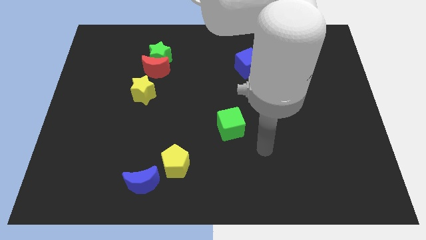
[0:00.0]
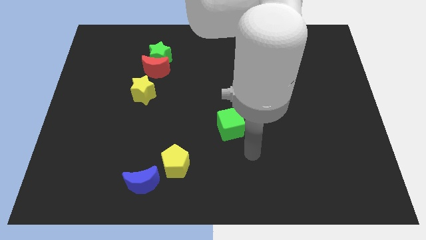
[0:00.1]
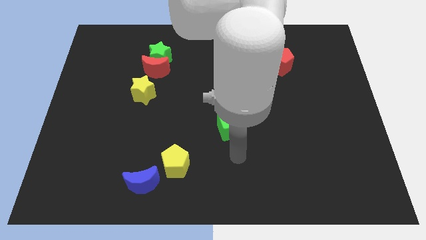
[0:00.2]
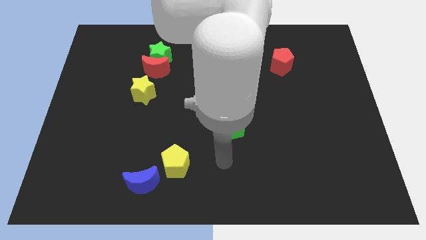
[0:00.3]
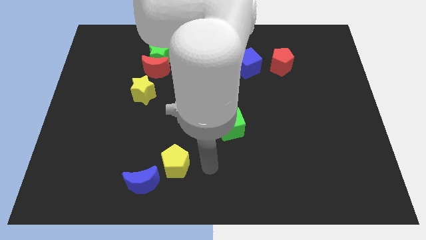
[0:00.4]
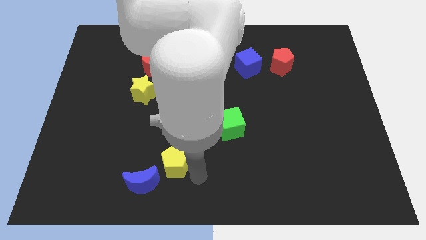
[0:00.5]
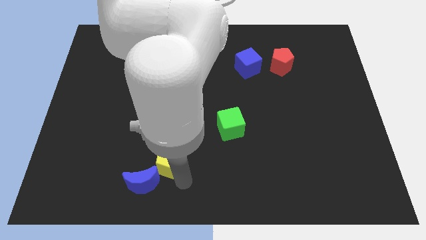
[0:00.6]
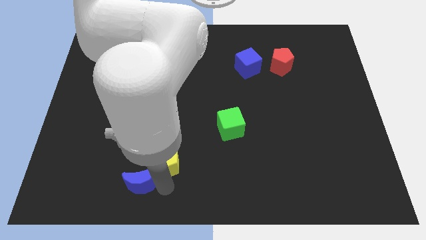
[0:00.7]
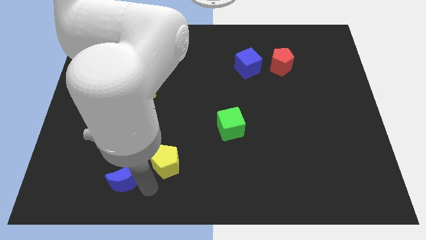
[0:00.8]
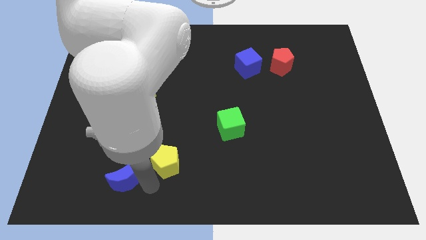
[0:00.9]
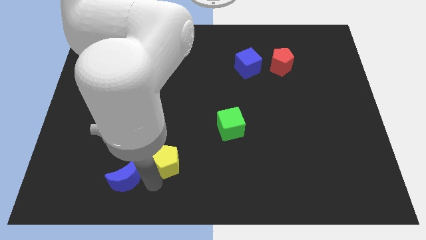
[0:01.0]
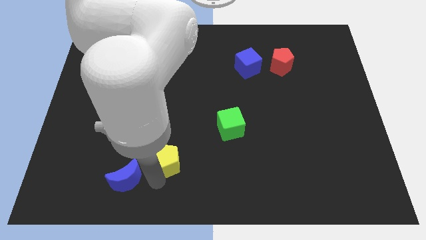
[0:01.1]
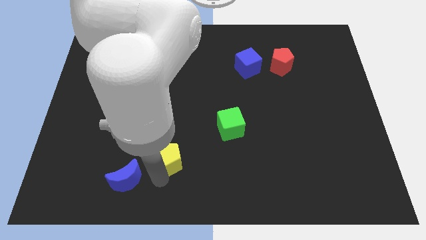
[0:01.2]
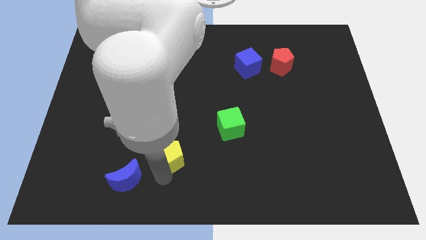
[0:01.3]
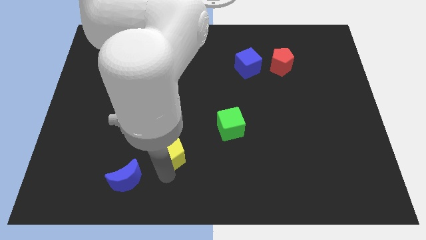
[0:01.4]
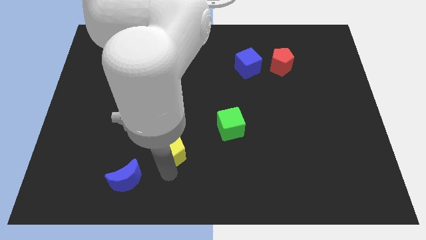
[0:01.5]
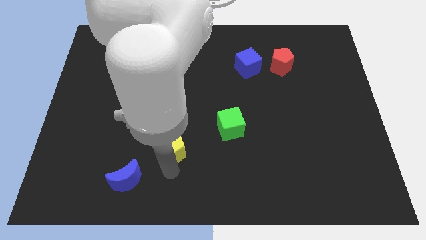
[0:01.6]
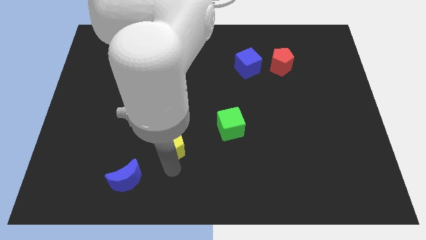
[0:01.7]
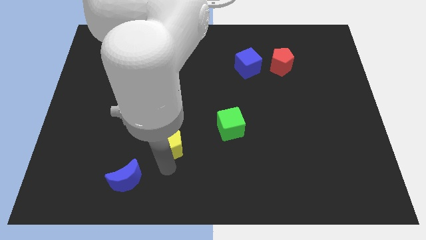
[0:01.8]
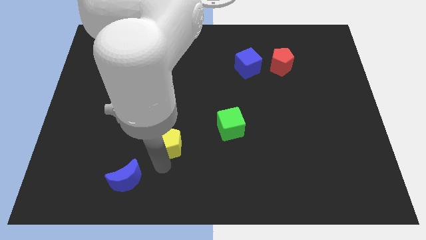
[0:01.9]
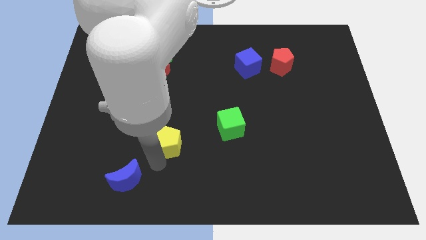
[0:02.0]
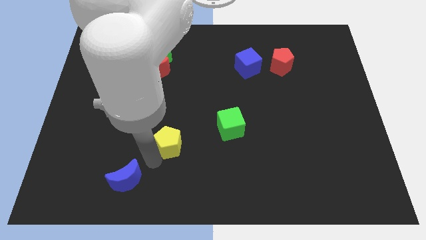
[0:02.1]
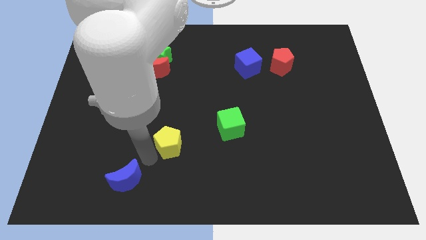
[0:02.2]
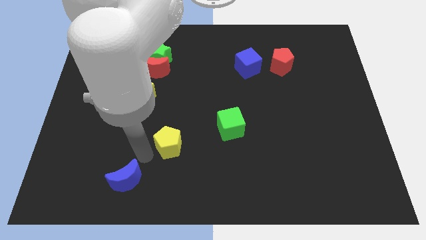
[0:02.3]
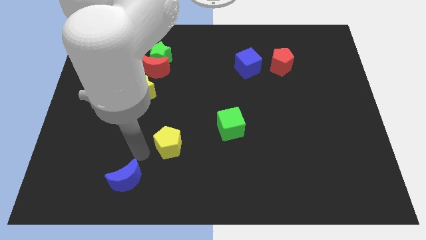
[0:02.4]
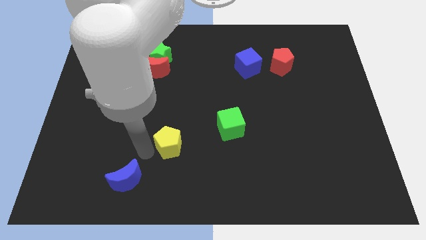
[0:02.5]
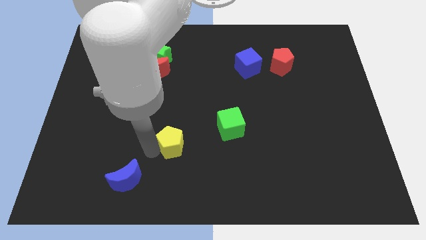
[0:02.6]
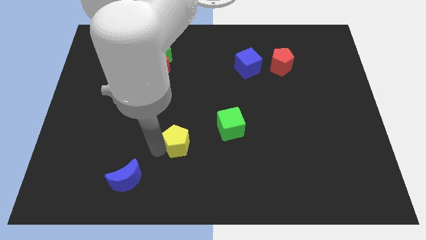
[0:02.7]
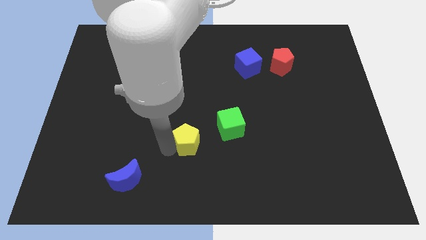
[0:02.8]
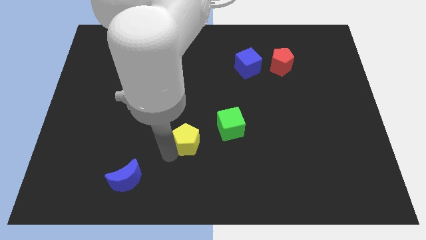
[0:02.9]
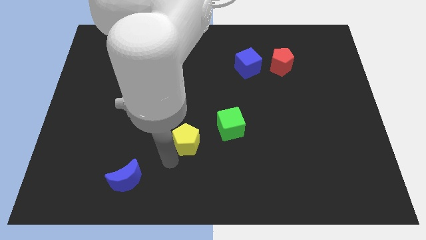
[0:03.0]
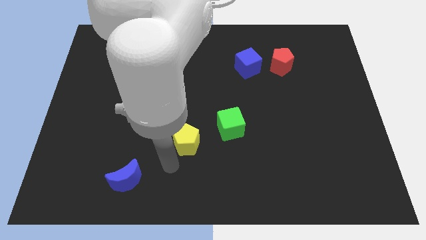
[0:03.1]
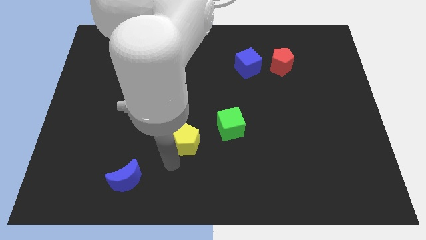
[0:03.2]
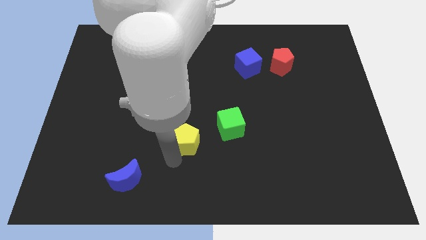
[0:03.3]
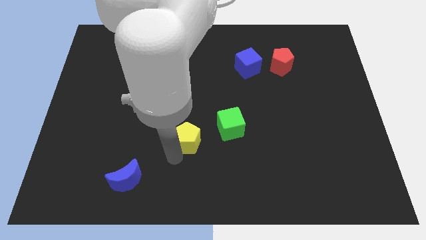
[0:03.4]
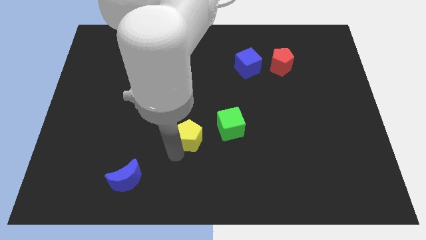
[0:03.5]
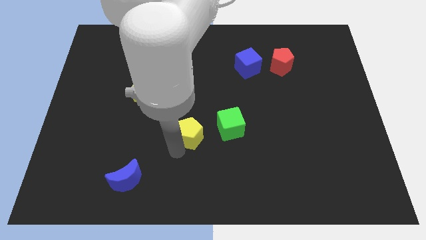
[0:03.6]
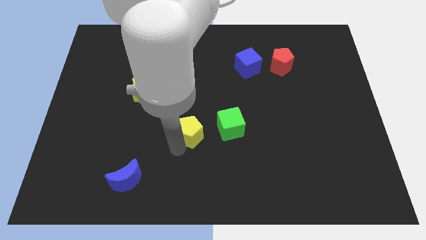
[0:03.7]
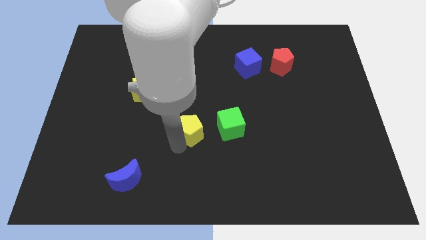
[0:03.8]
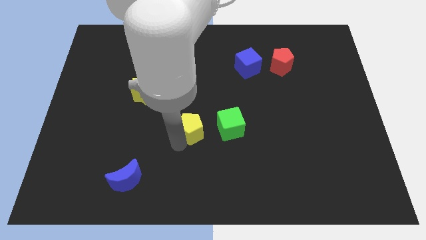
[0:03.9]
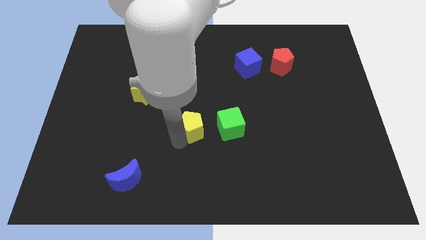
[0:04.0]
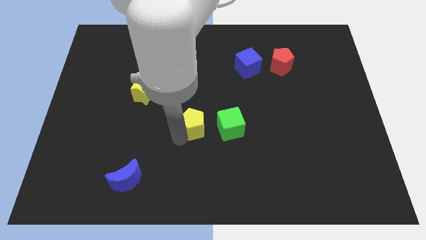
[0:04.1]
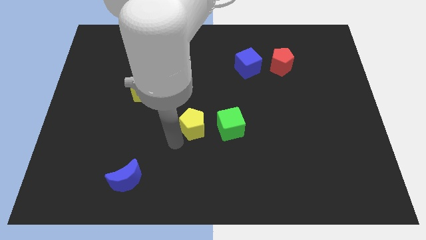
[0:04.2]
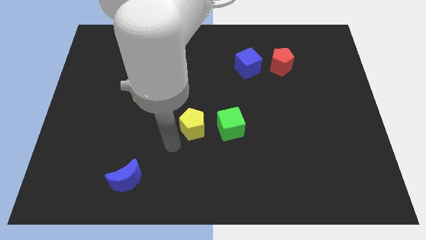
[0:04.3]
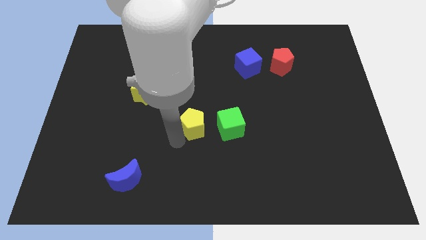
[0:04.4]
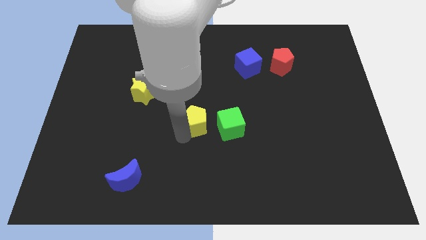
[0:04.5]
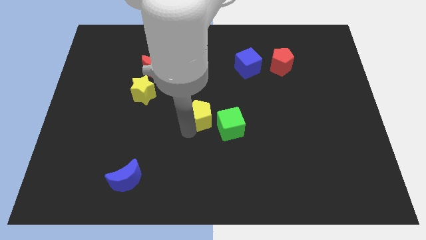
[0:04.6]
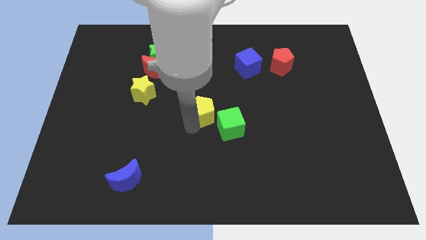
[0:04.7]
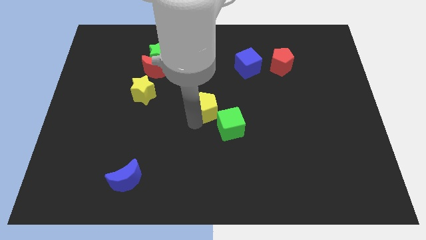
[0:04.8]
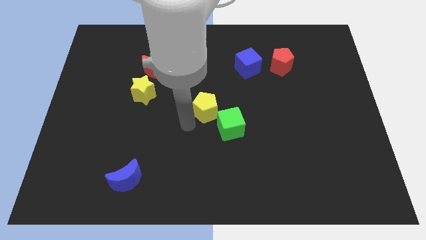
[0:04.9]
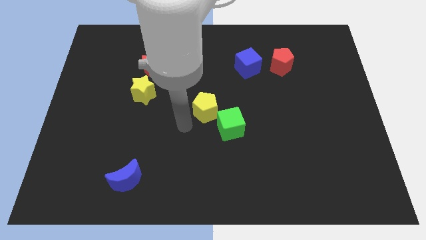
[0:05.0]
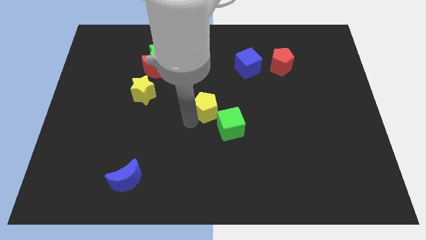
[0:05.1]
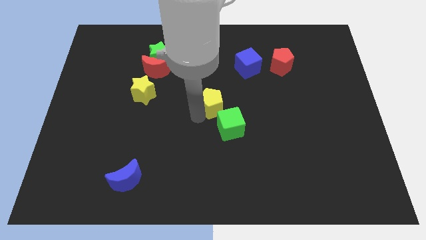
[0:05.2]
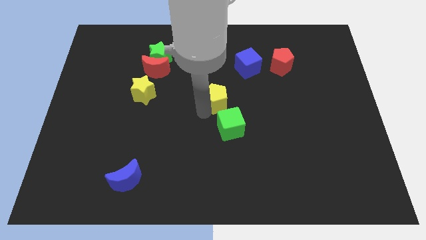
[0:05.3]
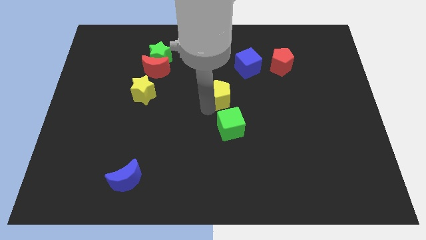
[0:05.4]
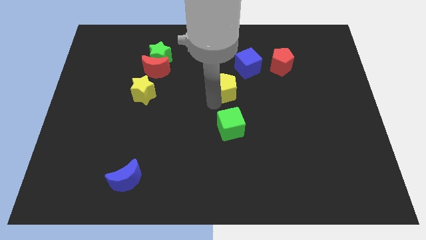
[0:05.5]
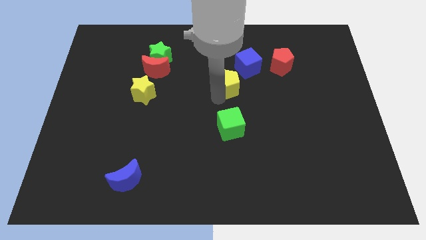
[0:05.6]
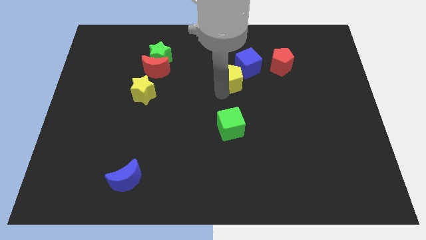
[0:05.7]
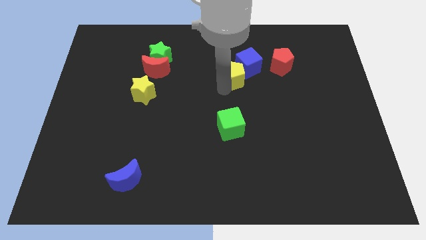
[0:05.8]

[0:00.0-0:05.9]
move the yellow pentagon to the blue cube
